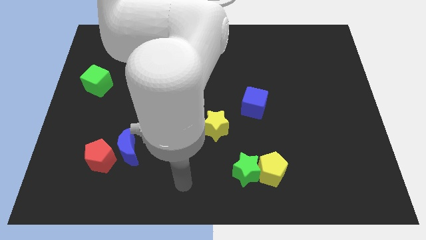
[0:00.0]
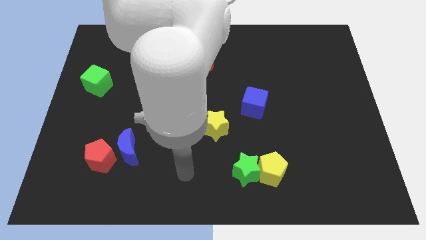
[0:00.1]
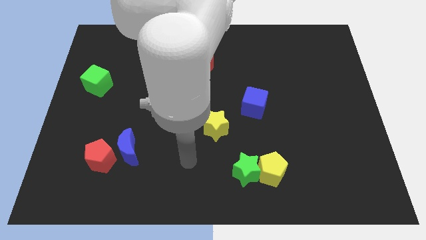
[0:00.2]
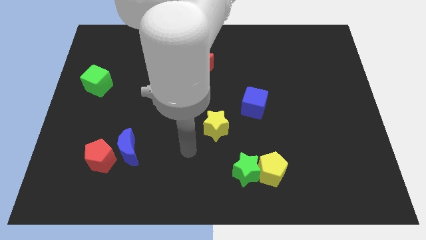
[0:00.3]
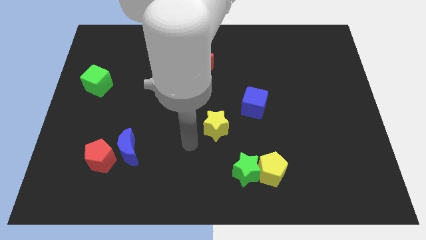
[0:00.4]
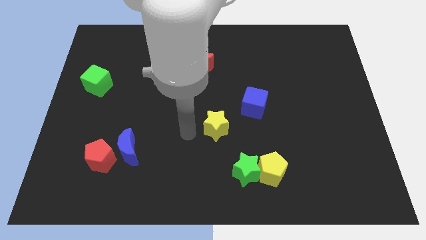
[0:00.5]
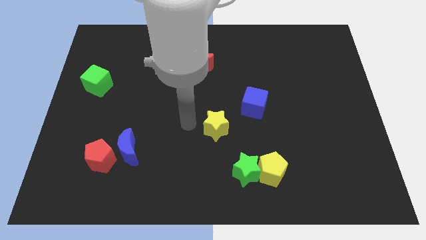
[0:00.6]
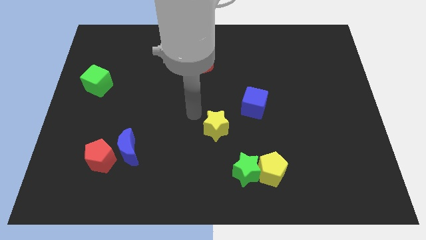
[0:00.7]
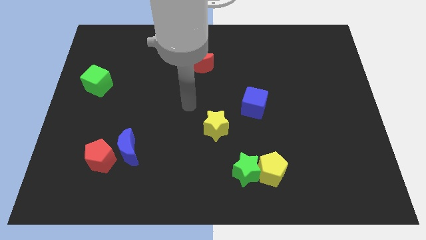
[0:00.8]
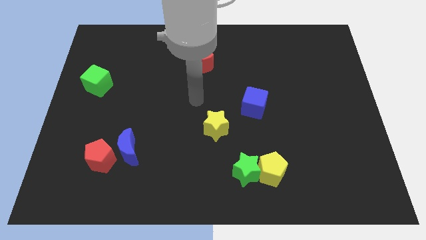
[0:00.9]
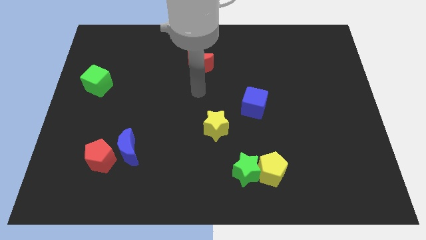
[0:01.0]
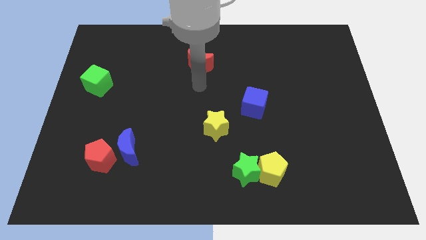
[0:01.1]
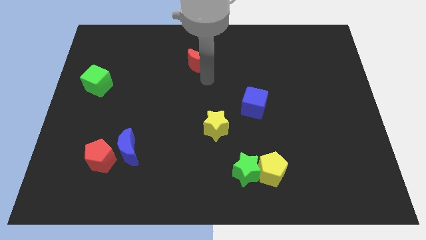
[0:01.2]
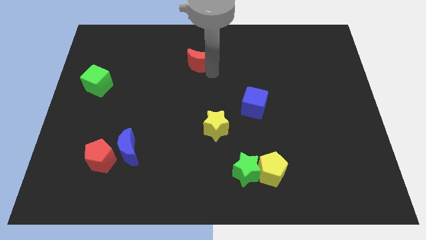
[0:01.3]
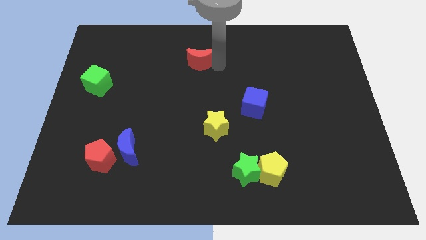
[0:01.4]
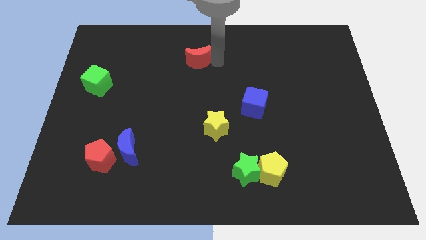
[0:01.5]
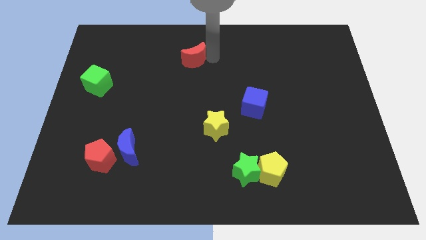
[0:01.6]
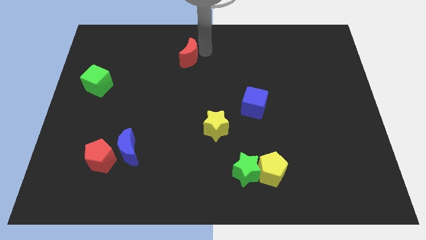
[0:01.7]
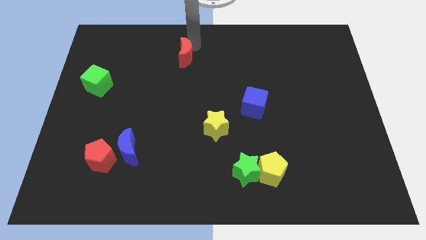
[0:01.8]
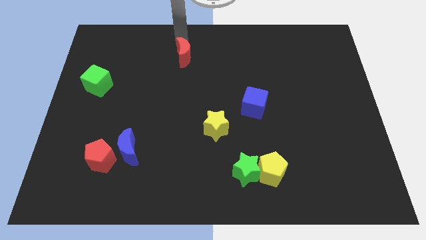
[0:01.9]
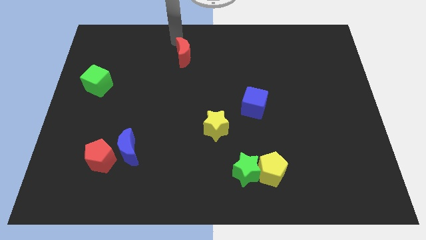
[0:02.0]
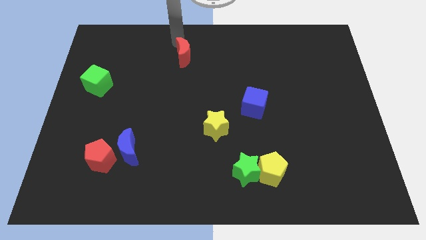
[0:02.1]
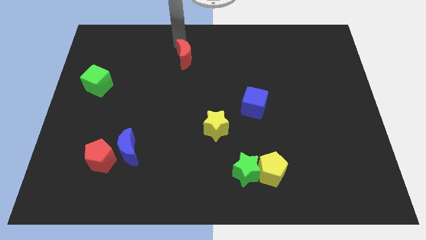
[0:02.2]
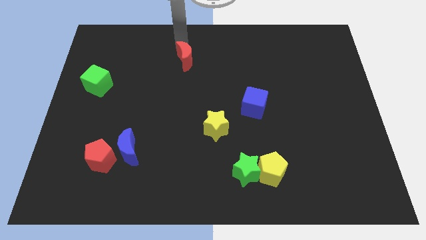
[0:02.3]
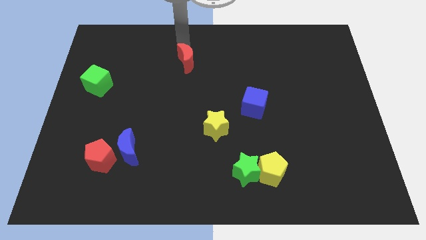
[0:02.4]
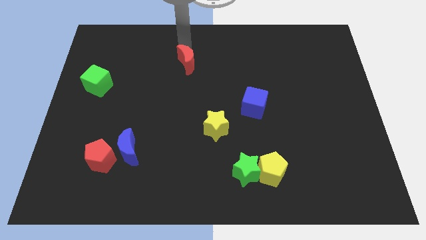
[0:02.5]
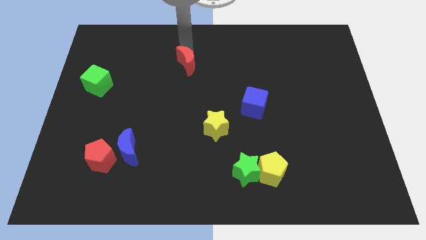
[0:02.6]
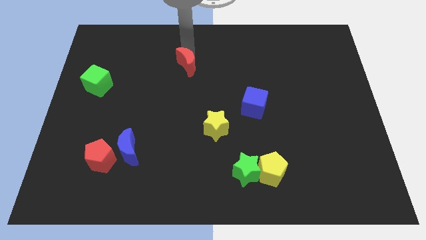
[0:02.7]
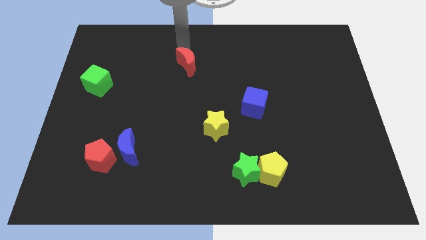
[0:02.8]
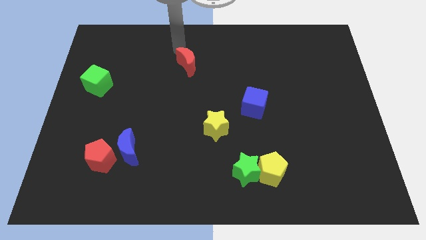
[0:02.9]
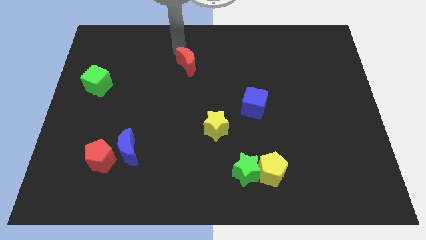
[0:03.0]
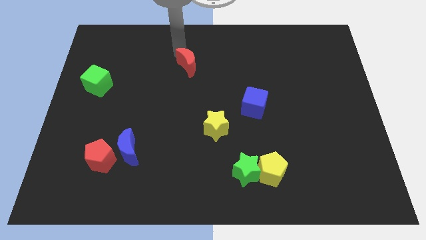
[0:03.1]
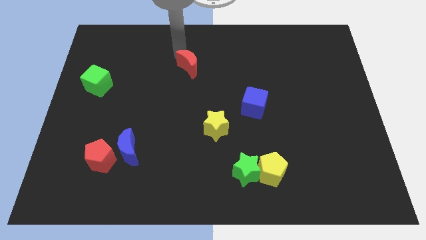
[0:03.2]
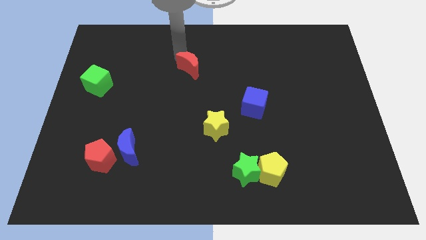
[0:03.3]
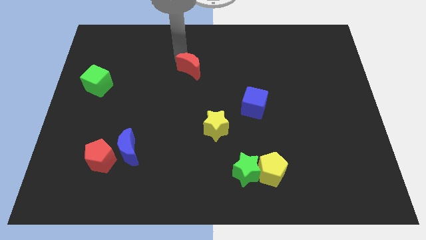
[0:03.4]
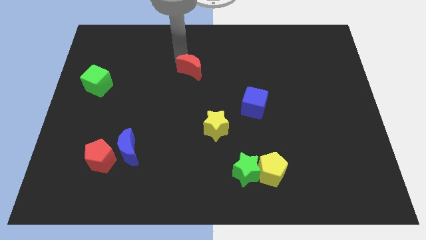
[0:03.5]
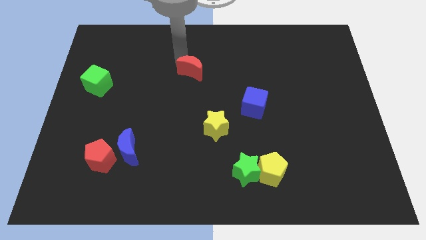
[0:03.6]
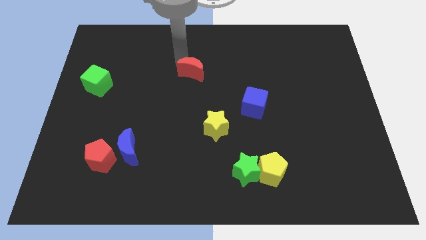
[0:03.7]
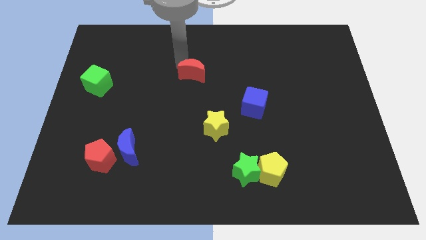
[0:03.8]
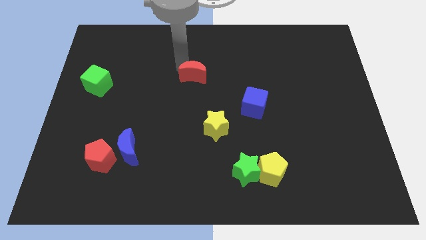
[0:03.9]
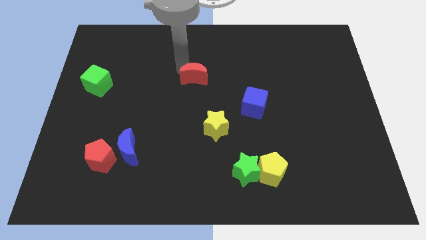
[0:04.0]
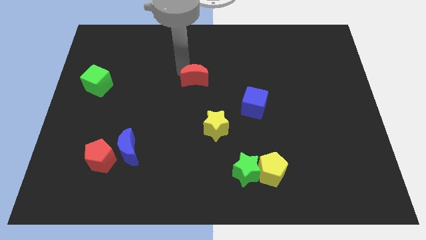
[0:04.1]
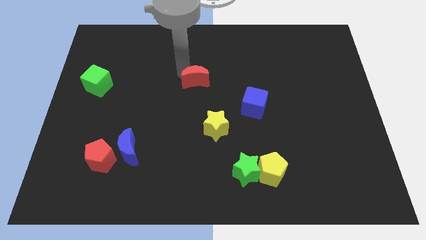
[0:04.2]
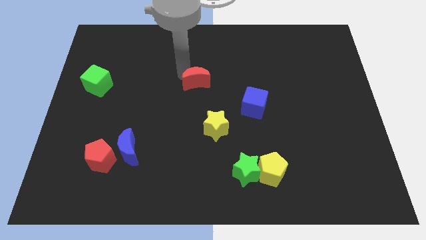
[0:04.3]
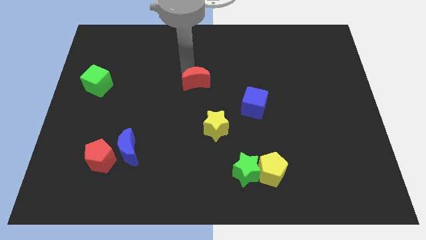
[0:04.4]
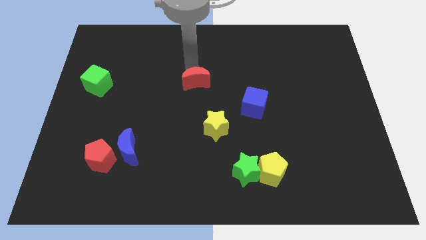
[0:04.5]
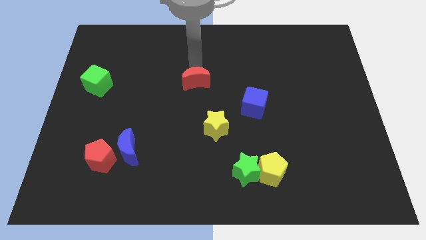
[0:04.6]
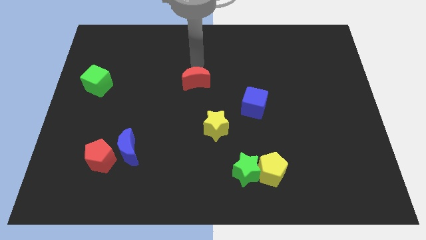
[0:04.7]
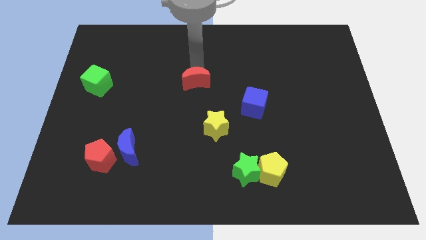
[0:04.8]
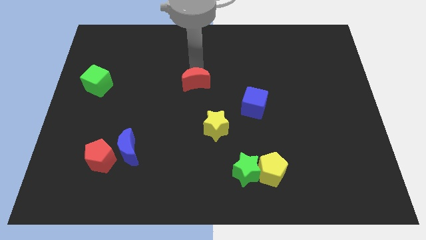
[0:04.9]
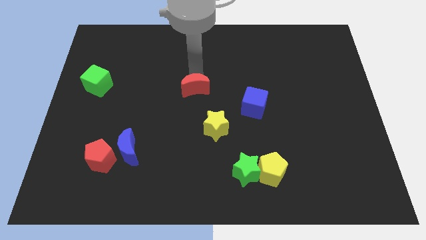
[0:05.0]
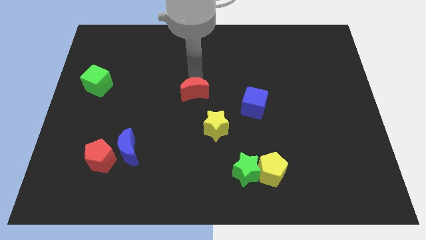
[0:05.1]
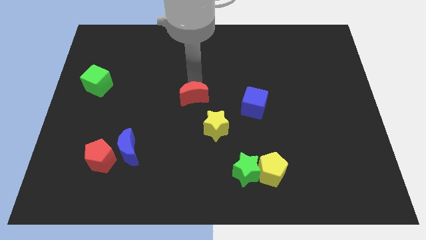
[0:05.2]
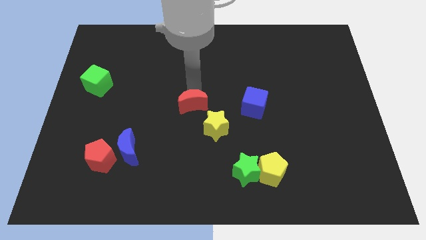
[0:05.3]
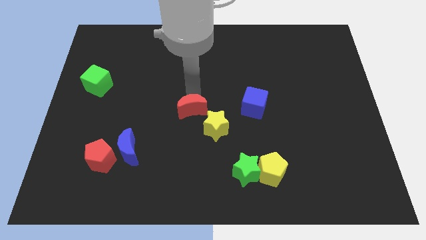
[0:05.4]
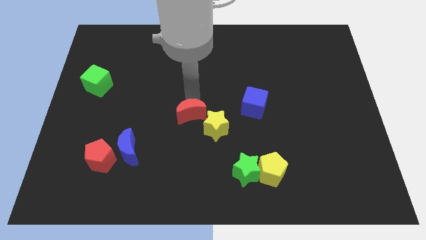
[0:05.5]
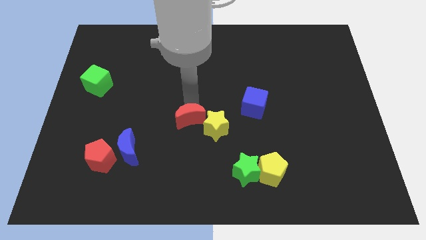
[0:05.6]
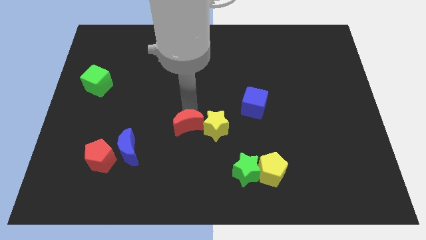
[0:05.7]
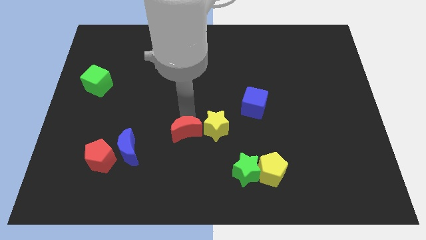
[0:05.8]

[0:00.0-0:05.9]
push the red moon down

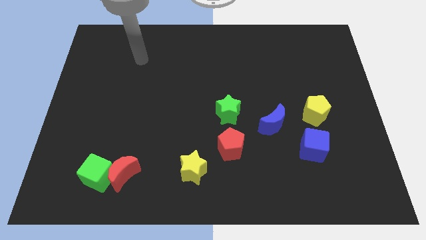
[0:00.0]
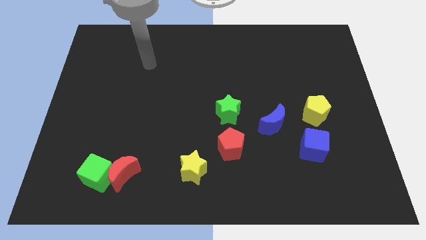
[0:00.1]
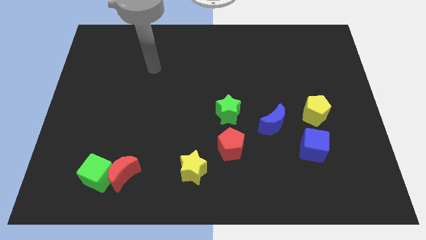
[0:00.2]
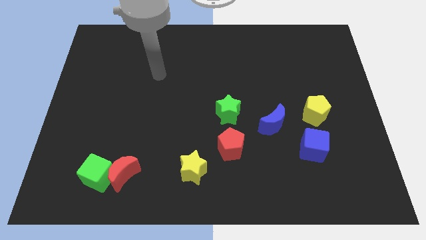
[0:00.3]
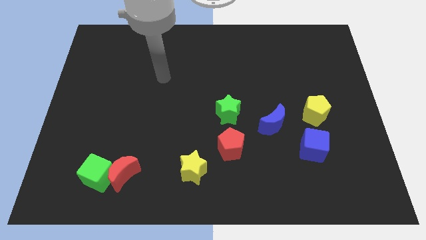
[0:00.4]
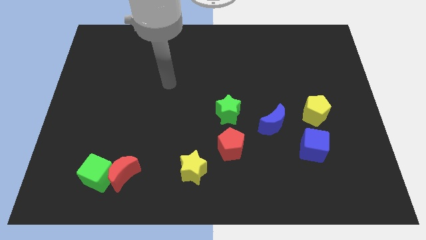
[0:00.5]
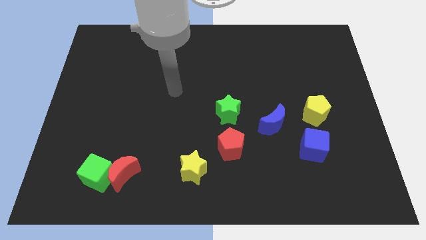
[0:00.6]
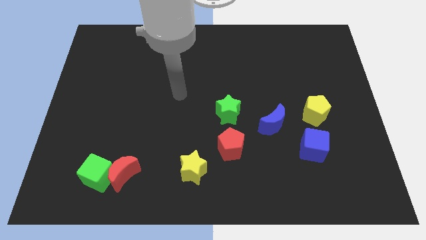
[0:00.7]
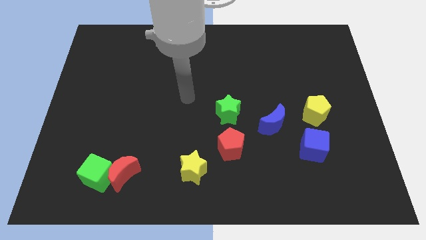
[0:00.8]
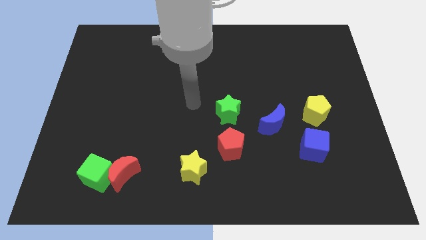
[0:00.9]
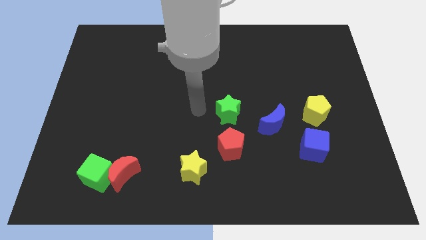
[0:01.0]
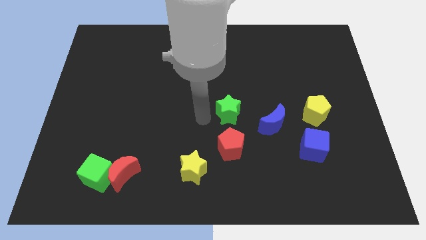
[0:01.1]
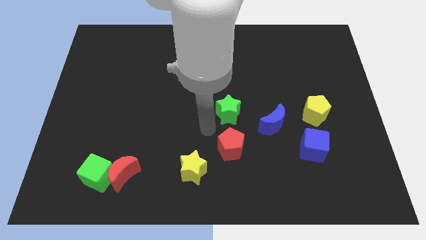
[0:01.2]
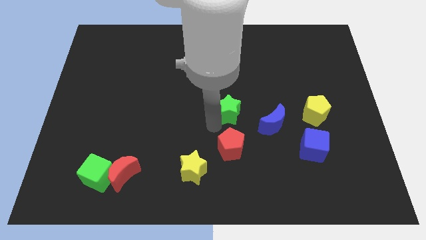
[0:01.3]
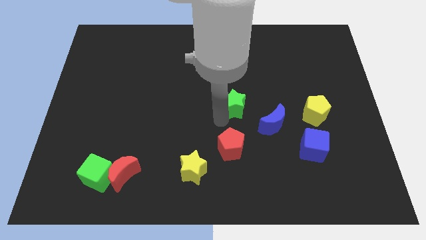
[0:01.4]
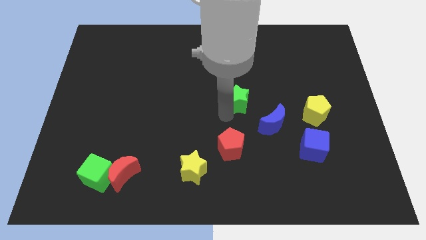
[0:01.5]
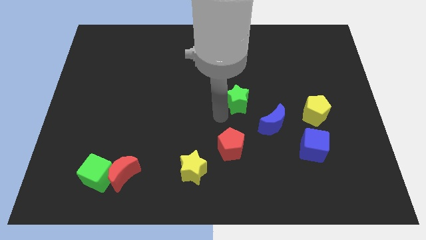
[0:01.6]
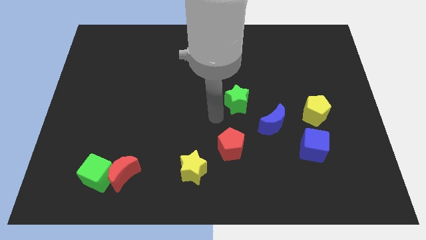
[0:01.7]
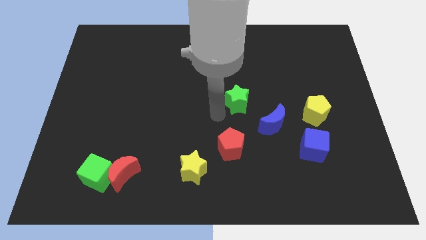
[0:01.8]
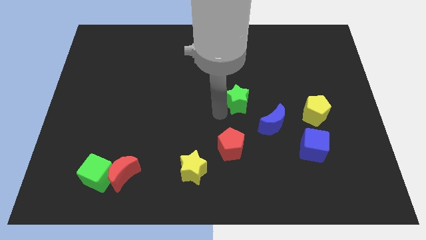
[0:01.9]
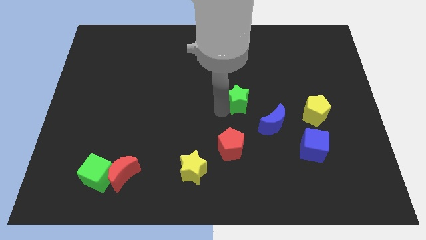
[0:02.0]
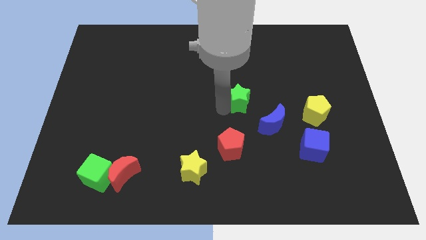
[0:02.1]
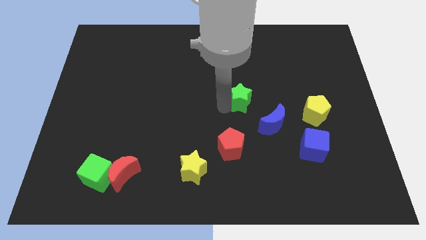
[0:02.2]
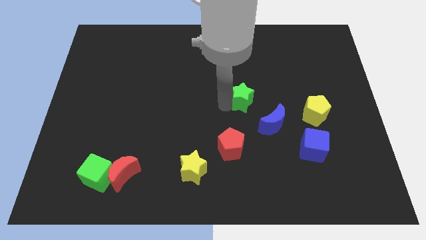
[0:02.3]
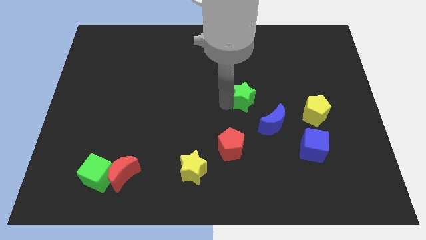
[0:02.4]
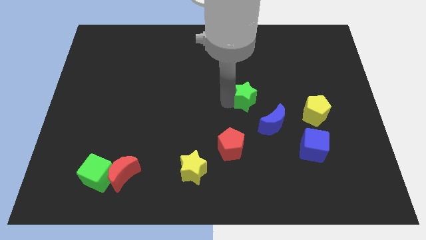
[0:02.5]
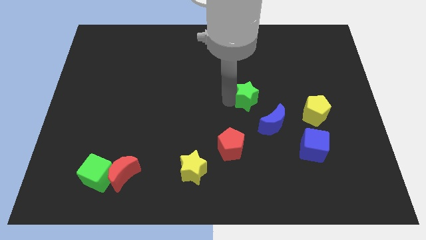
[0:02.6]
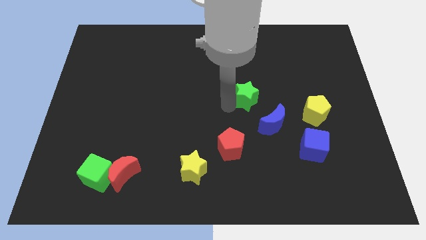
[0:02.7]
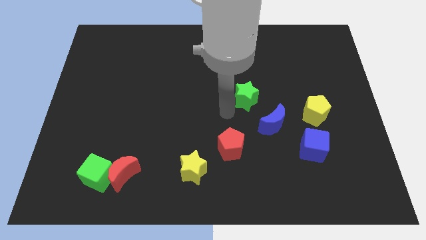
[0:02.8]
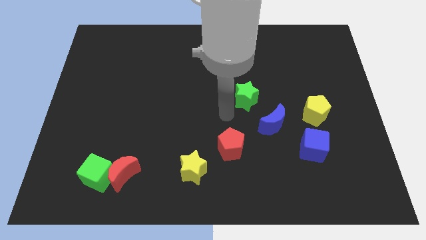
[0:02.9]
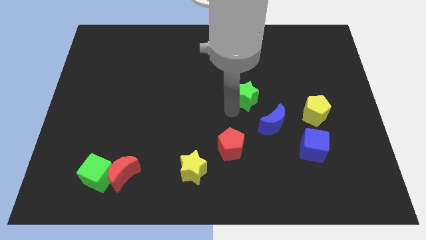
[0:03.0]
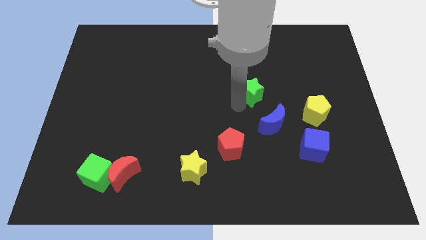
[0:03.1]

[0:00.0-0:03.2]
slightly push the green star diagonally up and right
